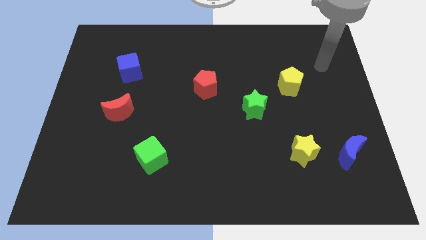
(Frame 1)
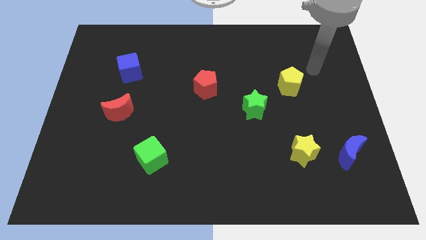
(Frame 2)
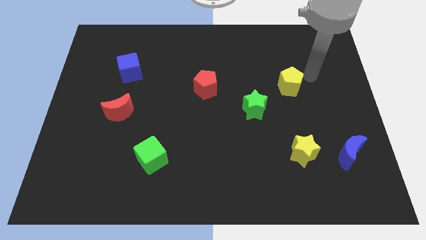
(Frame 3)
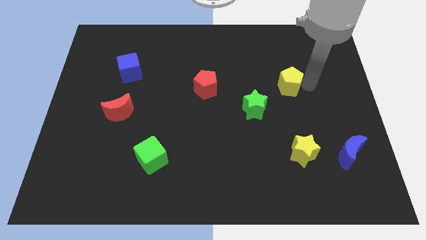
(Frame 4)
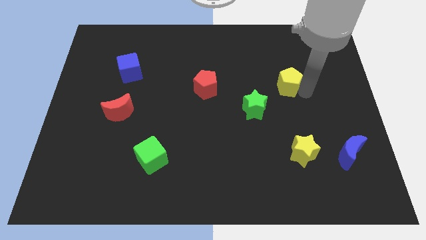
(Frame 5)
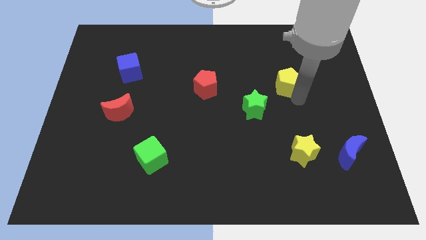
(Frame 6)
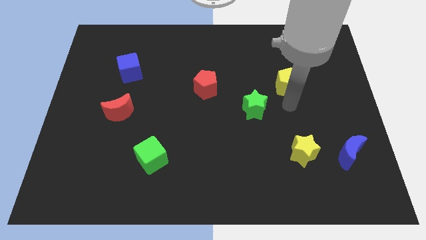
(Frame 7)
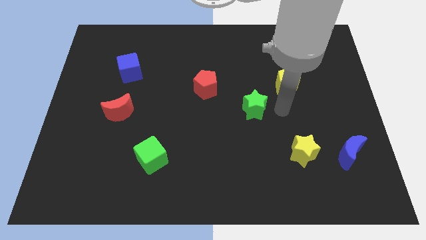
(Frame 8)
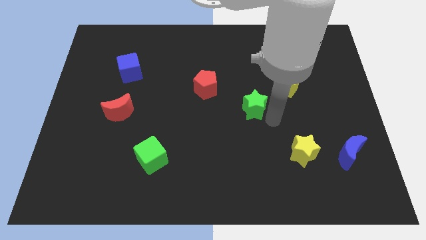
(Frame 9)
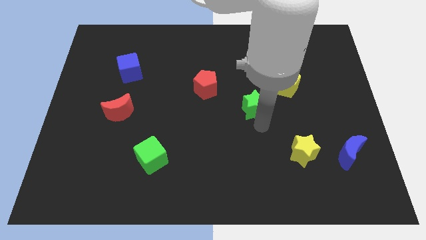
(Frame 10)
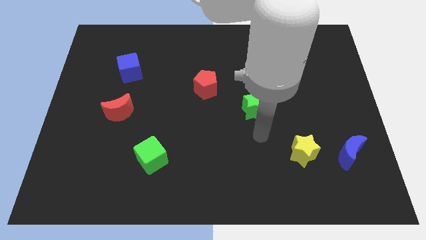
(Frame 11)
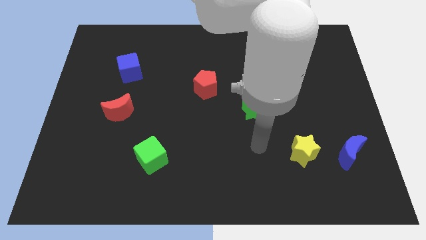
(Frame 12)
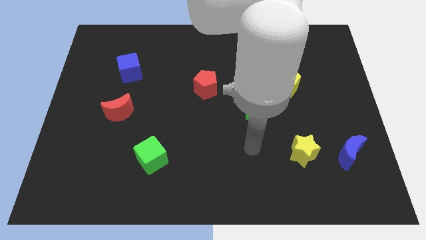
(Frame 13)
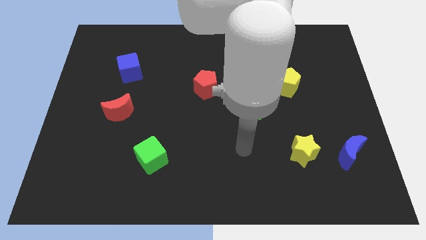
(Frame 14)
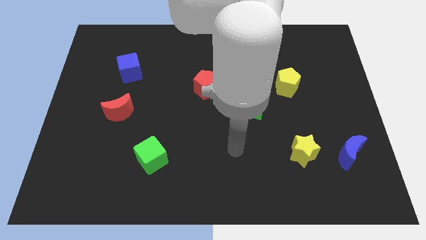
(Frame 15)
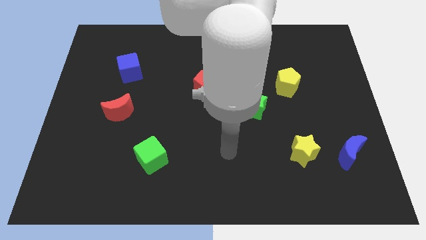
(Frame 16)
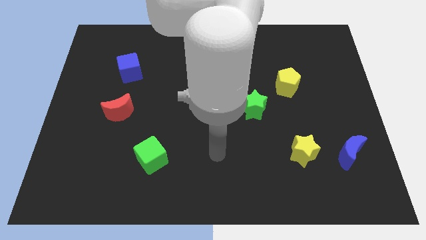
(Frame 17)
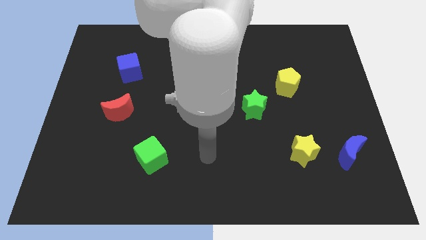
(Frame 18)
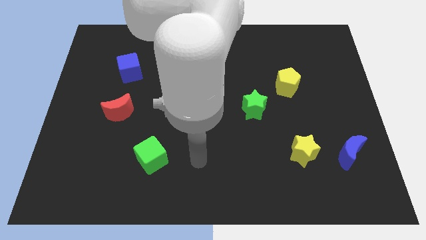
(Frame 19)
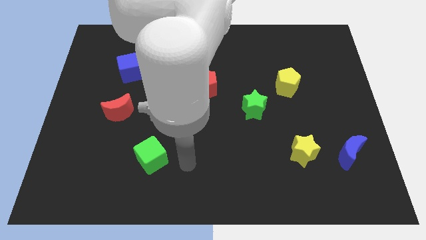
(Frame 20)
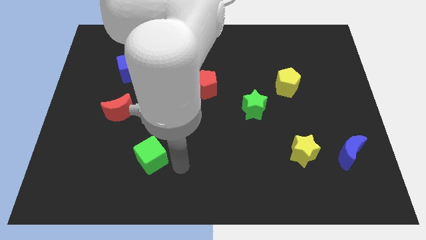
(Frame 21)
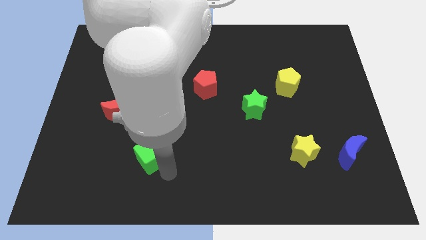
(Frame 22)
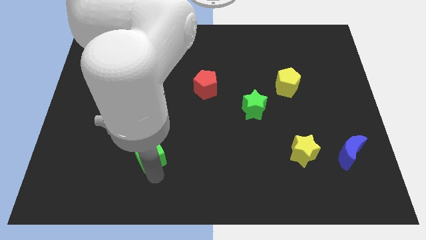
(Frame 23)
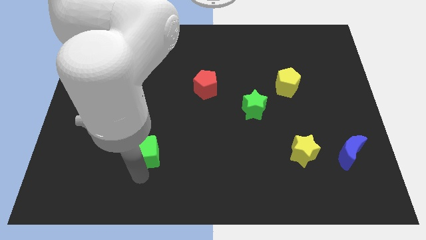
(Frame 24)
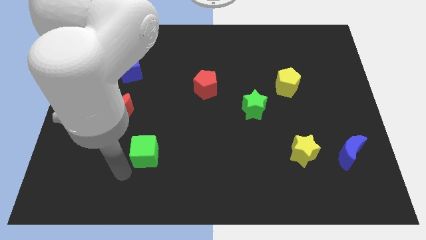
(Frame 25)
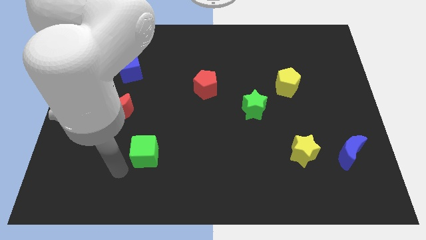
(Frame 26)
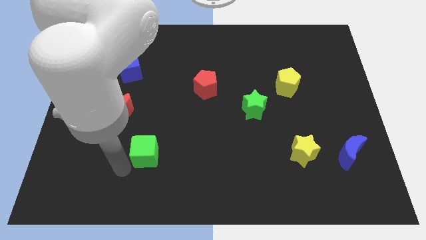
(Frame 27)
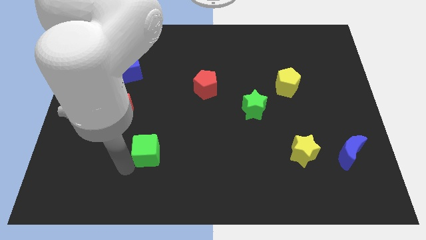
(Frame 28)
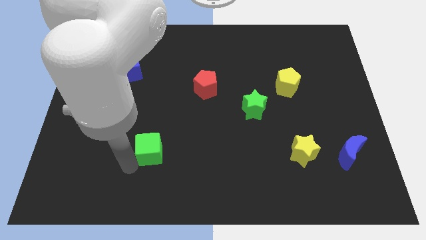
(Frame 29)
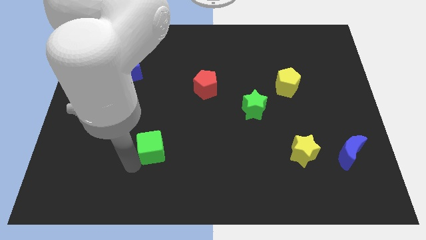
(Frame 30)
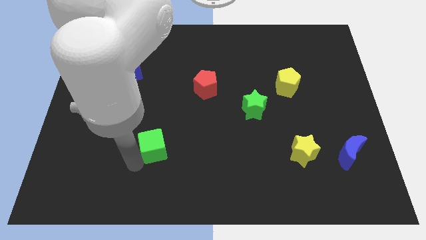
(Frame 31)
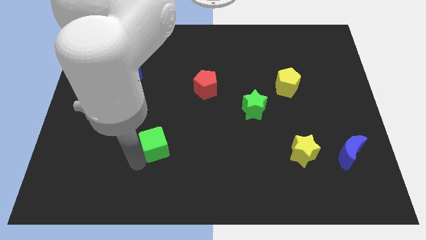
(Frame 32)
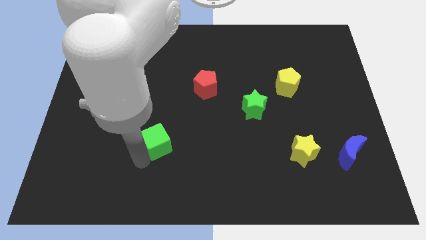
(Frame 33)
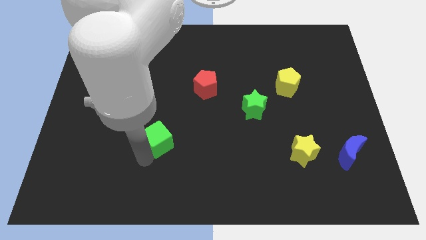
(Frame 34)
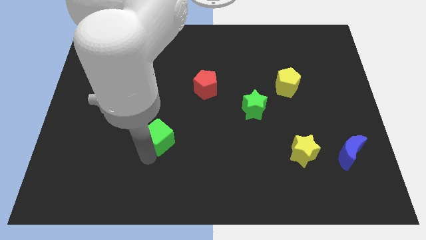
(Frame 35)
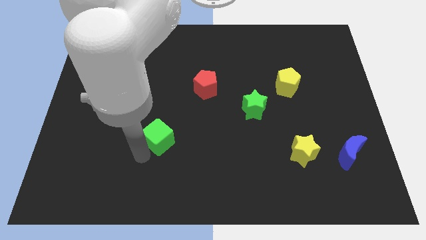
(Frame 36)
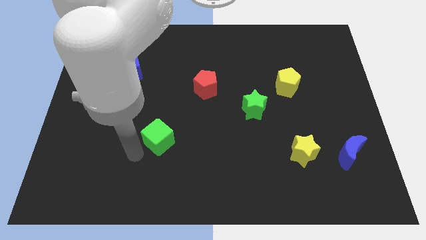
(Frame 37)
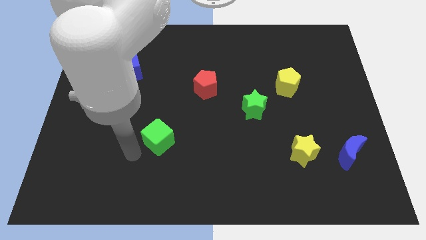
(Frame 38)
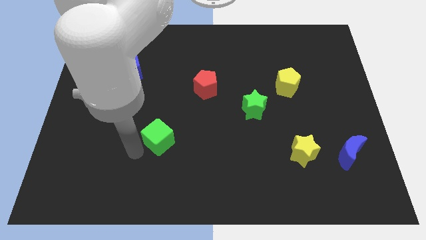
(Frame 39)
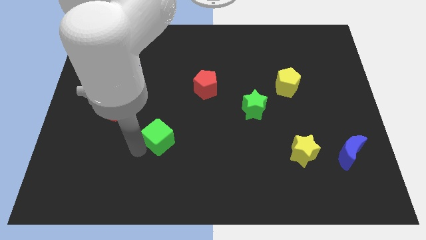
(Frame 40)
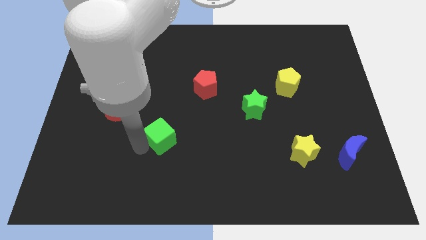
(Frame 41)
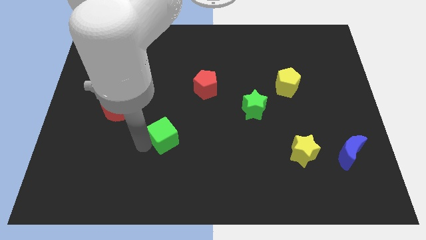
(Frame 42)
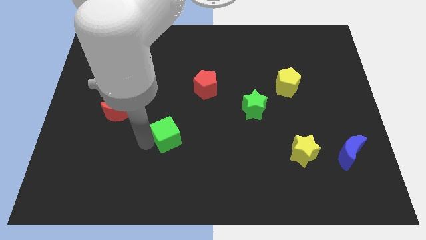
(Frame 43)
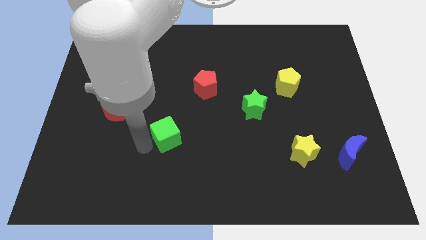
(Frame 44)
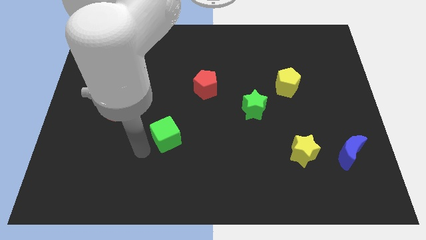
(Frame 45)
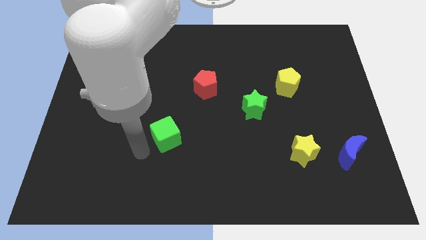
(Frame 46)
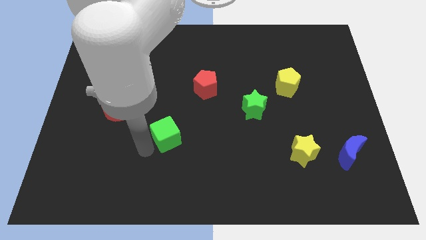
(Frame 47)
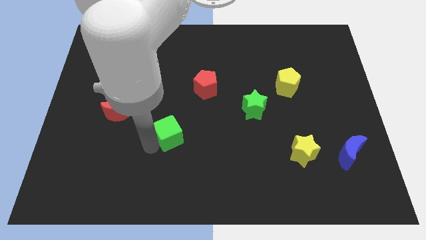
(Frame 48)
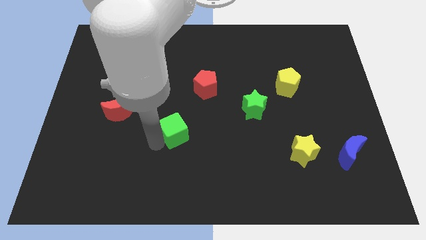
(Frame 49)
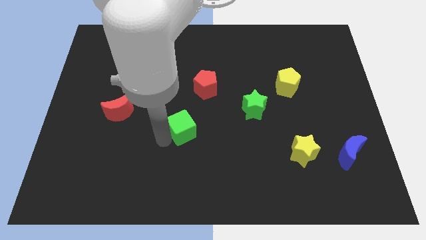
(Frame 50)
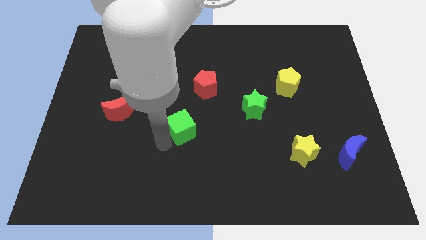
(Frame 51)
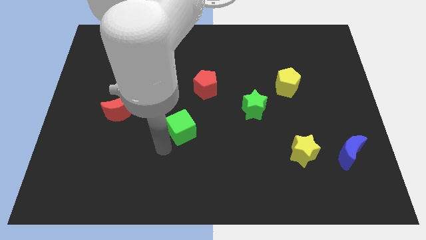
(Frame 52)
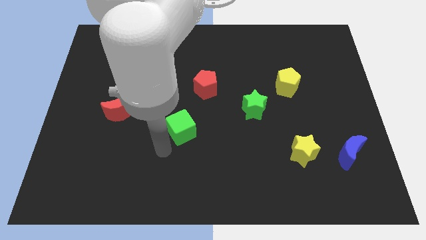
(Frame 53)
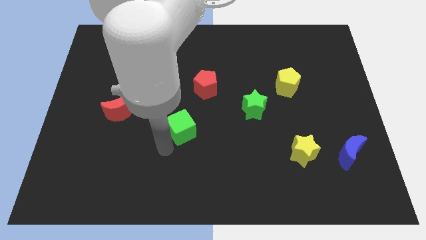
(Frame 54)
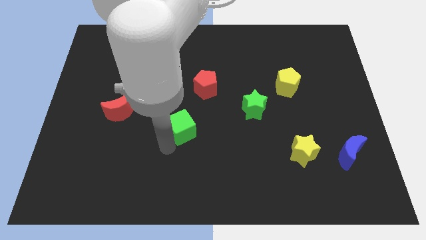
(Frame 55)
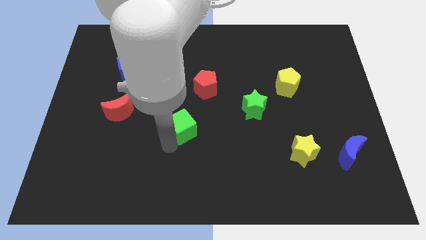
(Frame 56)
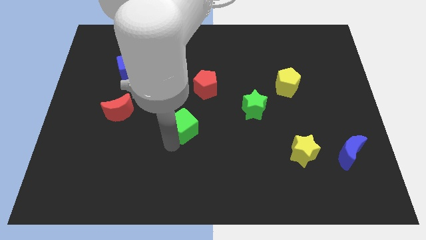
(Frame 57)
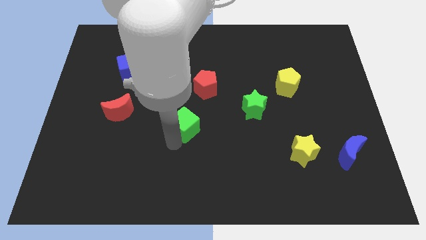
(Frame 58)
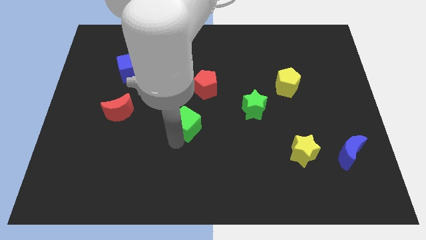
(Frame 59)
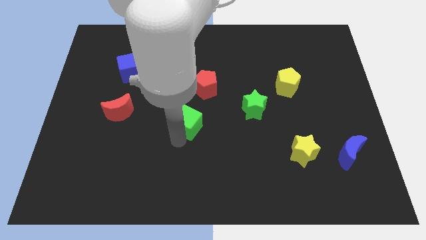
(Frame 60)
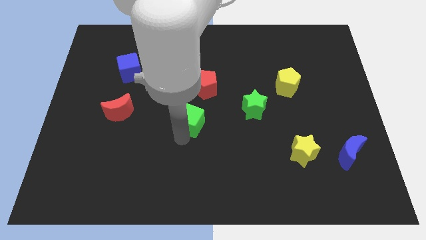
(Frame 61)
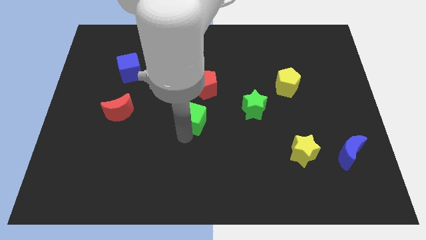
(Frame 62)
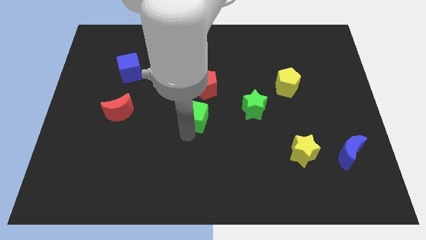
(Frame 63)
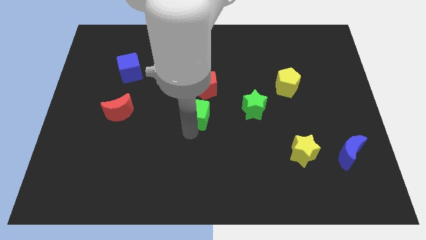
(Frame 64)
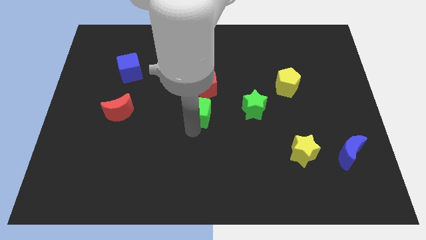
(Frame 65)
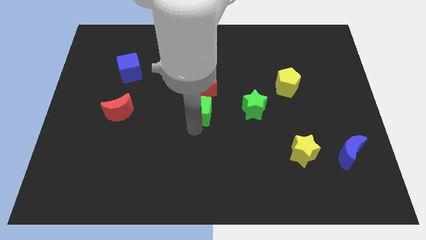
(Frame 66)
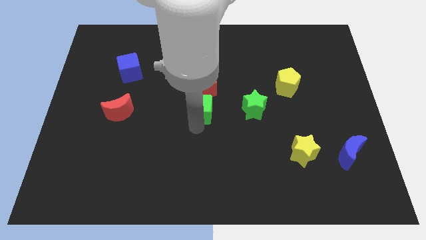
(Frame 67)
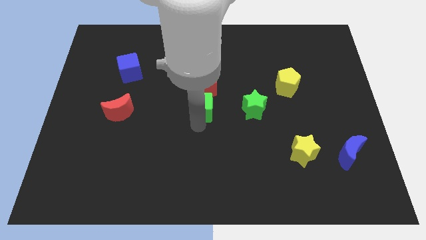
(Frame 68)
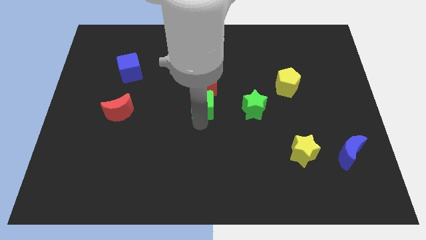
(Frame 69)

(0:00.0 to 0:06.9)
push the green cube to the red pentagon
